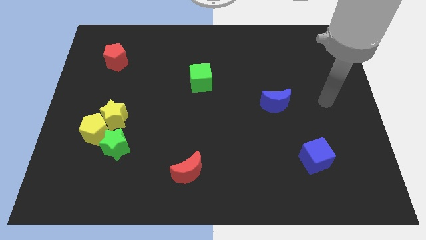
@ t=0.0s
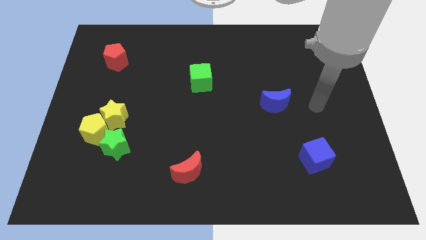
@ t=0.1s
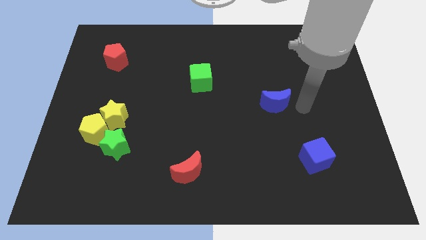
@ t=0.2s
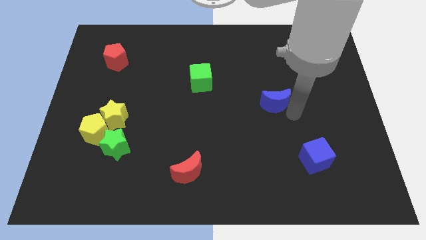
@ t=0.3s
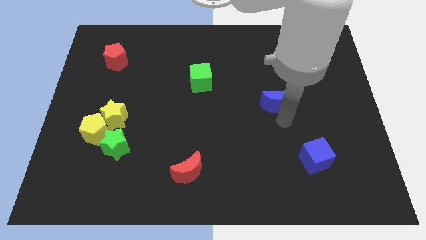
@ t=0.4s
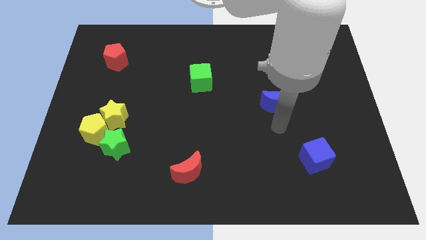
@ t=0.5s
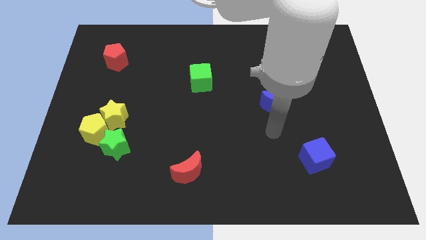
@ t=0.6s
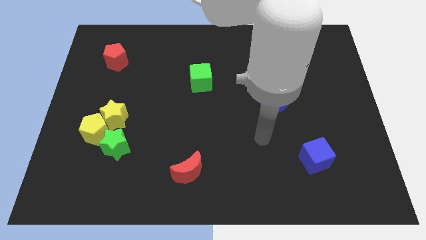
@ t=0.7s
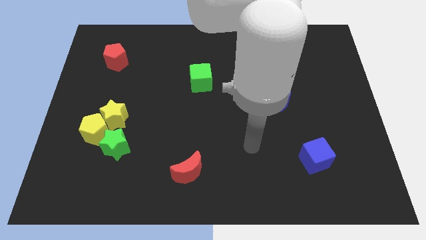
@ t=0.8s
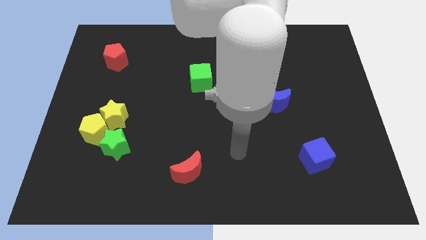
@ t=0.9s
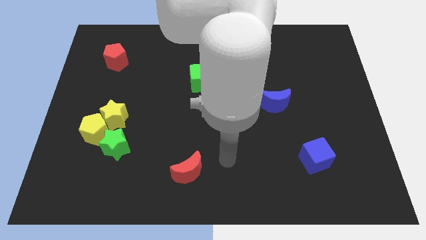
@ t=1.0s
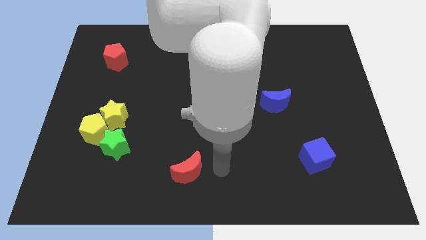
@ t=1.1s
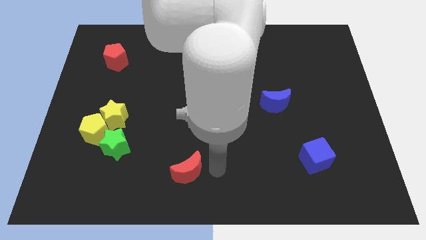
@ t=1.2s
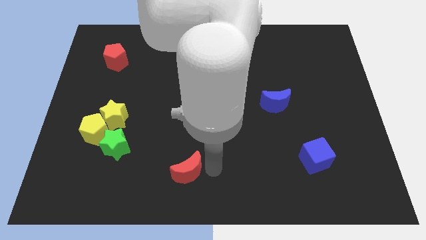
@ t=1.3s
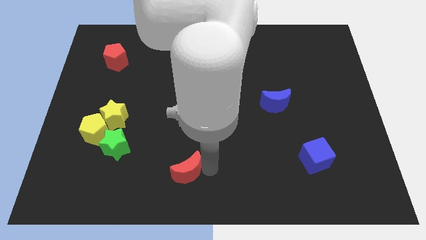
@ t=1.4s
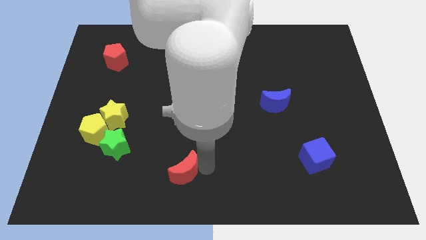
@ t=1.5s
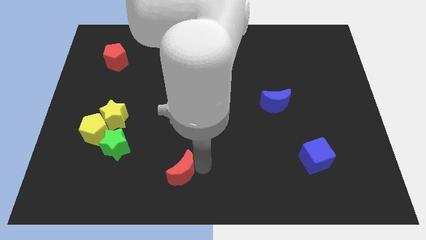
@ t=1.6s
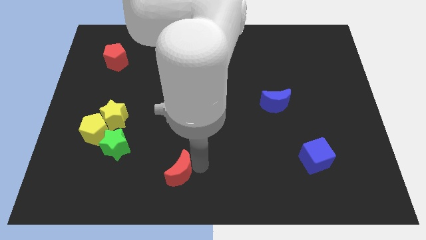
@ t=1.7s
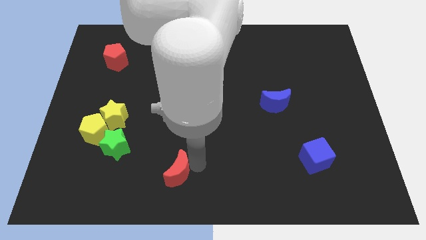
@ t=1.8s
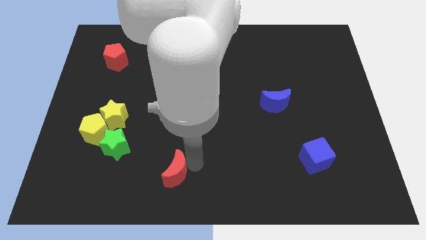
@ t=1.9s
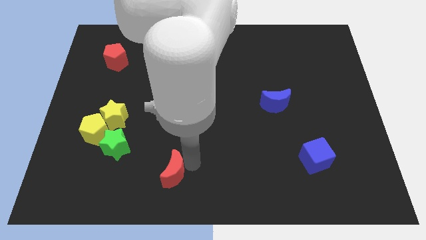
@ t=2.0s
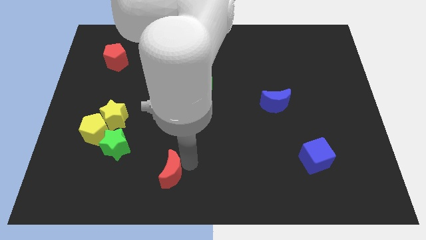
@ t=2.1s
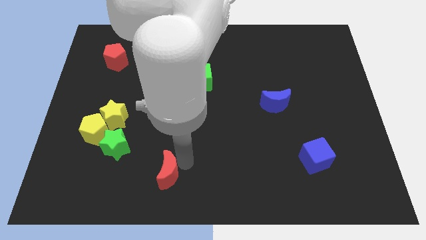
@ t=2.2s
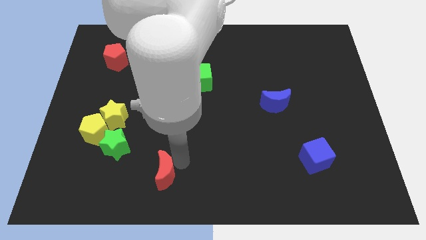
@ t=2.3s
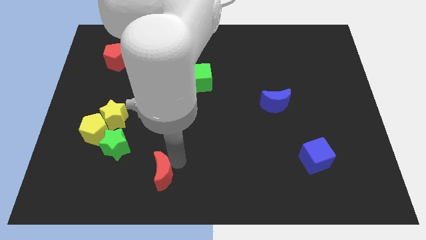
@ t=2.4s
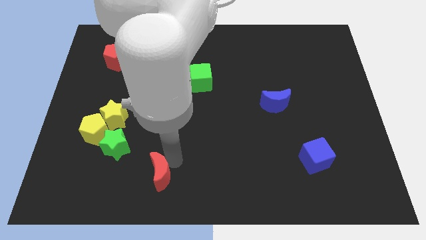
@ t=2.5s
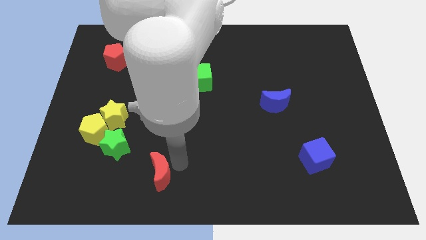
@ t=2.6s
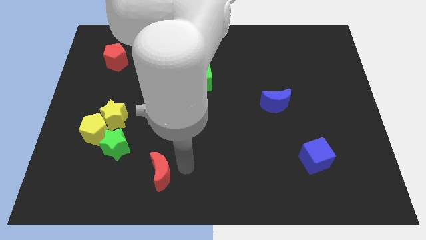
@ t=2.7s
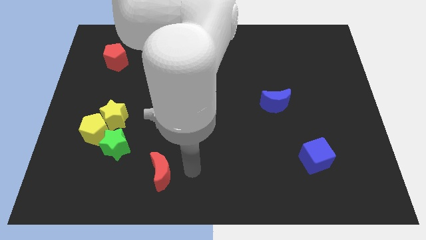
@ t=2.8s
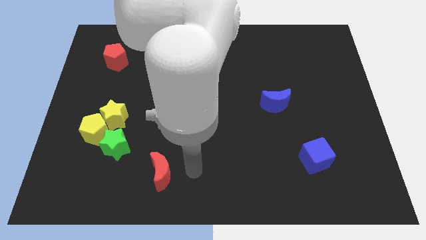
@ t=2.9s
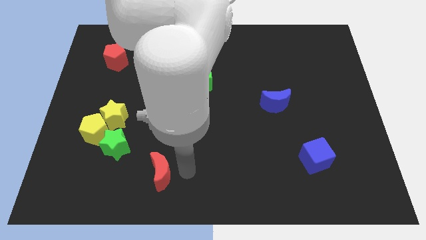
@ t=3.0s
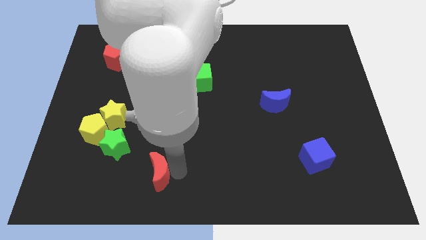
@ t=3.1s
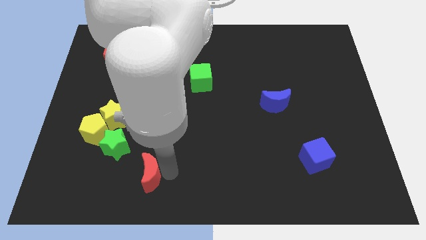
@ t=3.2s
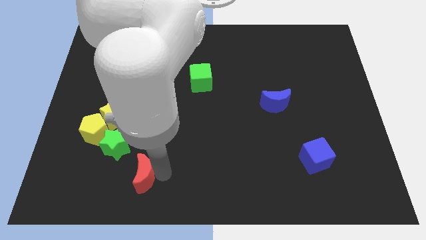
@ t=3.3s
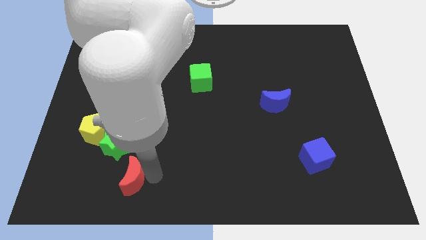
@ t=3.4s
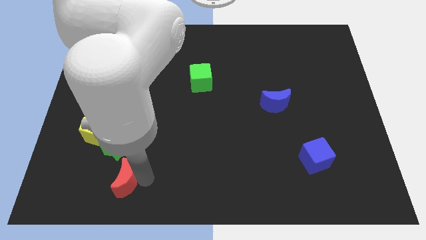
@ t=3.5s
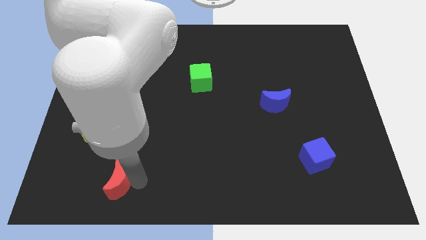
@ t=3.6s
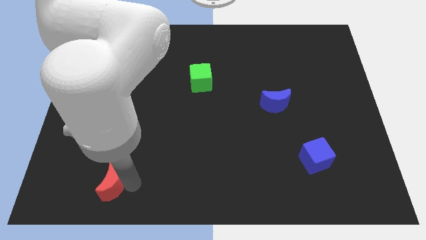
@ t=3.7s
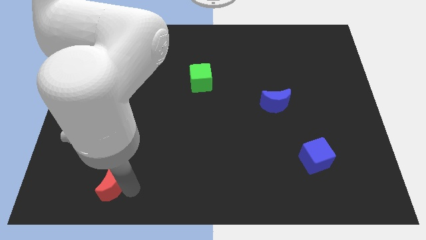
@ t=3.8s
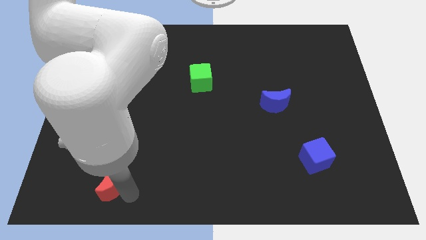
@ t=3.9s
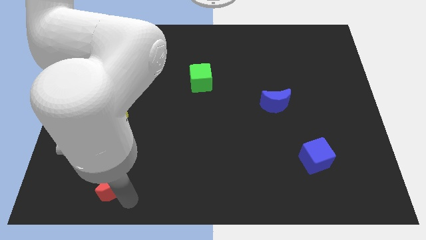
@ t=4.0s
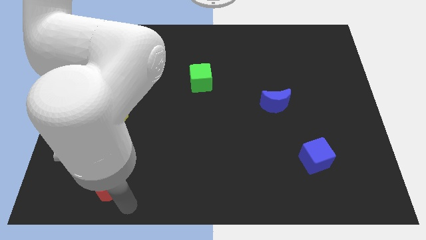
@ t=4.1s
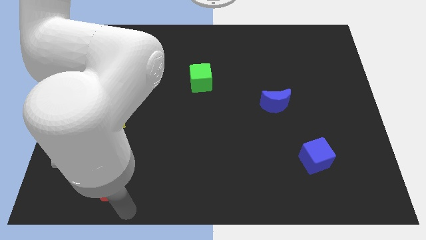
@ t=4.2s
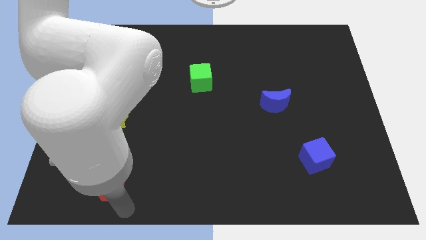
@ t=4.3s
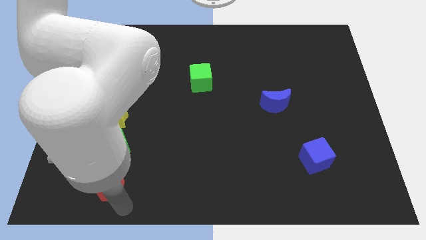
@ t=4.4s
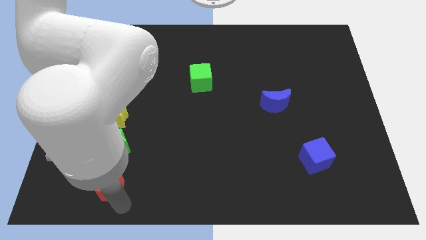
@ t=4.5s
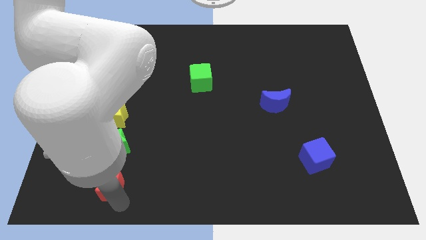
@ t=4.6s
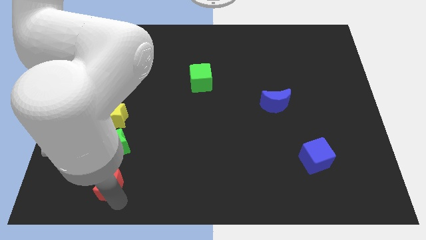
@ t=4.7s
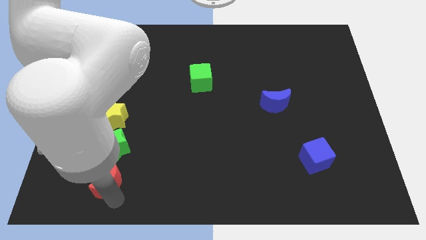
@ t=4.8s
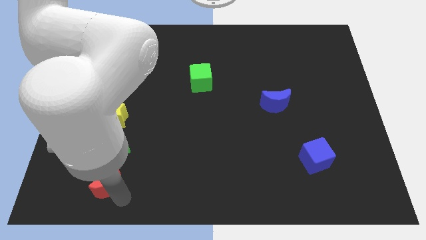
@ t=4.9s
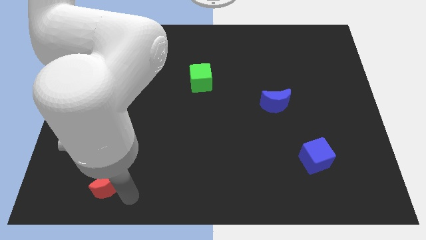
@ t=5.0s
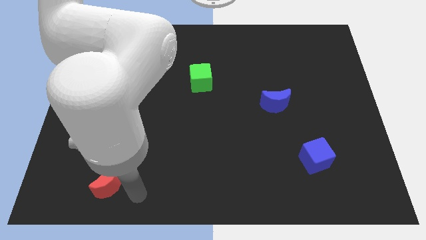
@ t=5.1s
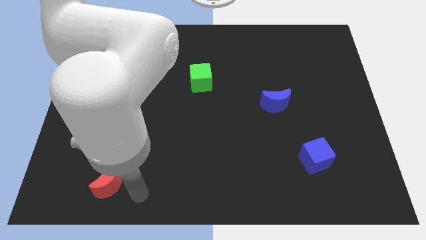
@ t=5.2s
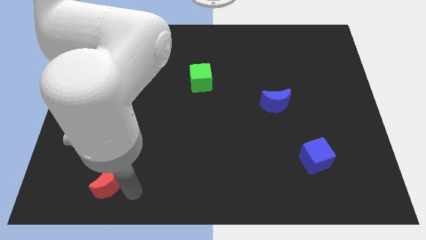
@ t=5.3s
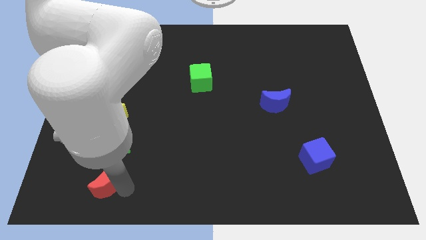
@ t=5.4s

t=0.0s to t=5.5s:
slide the red moon below the yellow pentagon

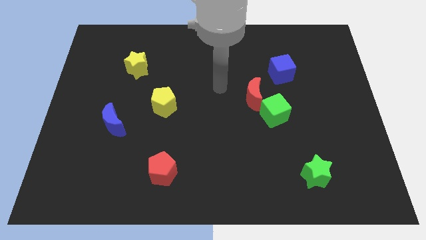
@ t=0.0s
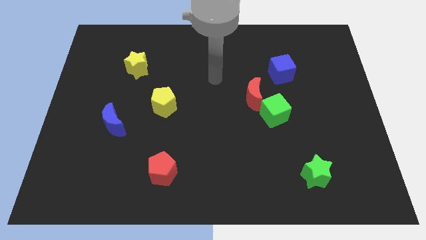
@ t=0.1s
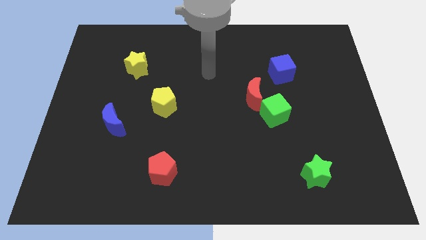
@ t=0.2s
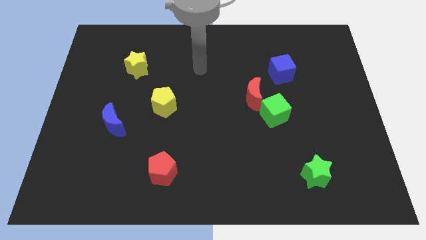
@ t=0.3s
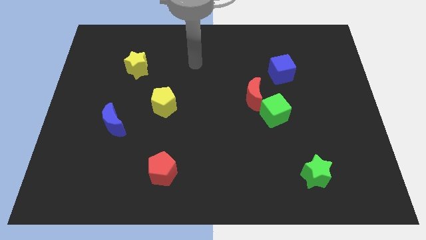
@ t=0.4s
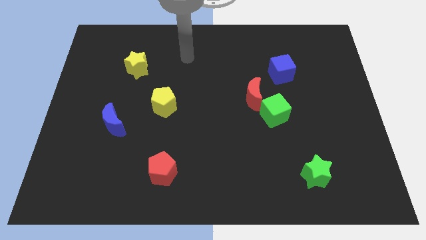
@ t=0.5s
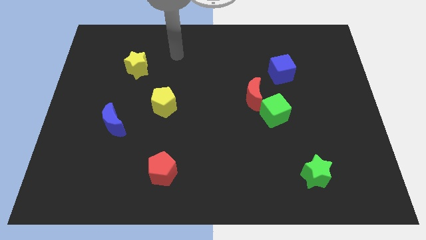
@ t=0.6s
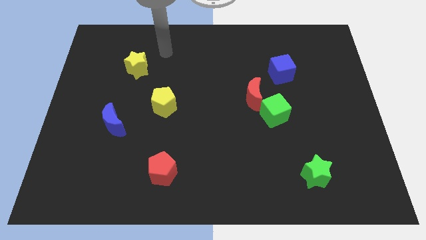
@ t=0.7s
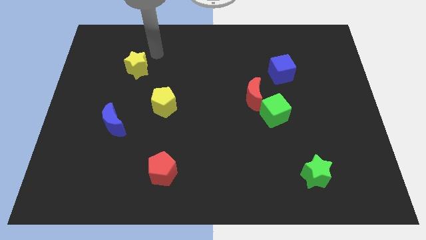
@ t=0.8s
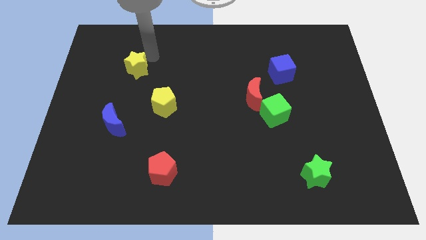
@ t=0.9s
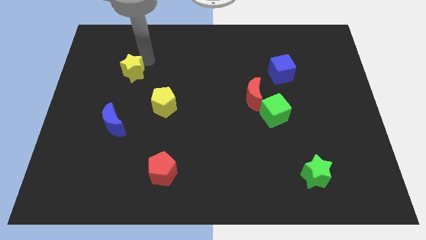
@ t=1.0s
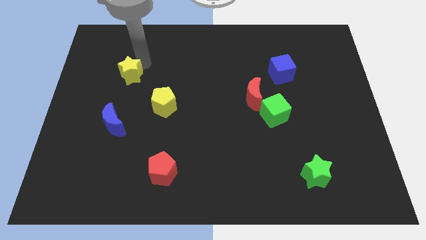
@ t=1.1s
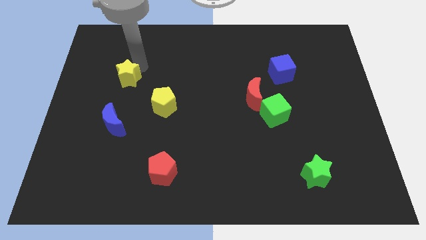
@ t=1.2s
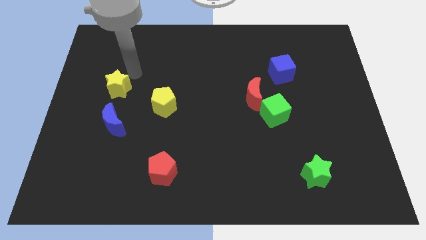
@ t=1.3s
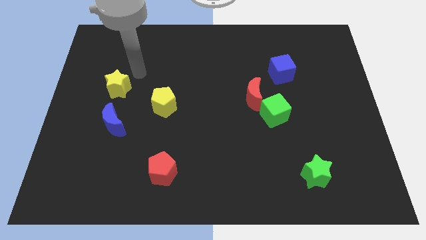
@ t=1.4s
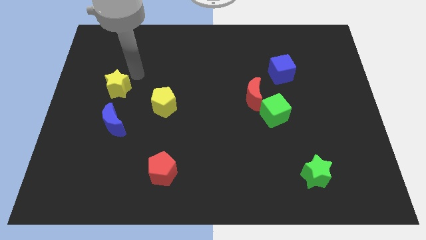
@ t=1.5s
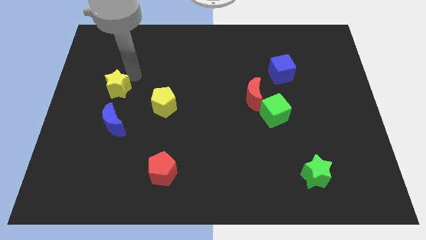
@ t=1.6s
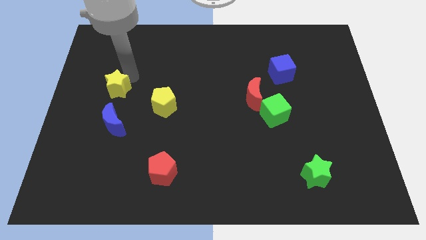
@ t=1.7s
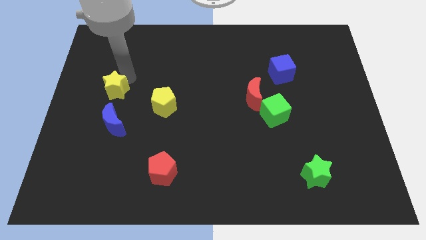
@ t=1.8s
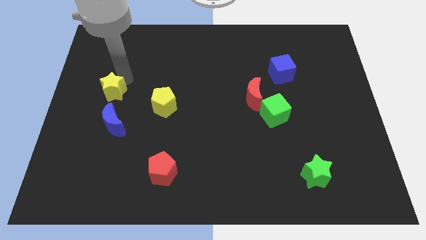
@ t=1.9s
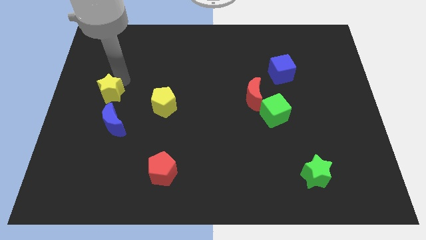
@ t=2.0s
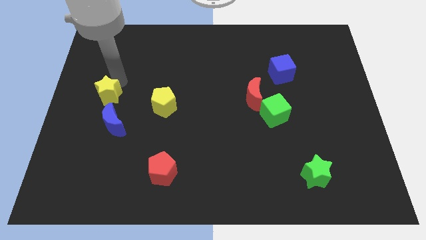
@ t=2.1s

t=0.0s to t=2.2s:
move the yellow star to the top left of the blue moon
